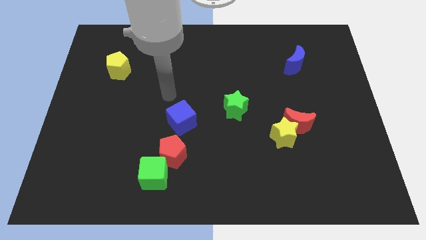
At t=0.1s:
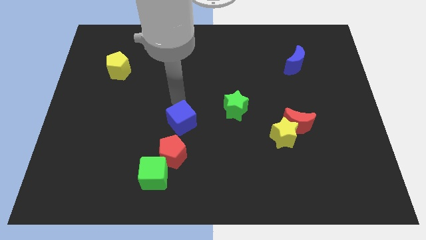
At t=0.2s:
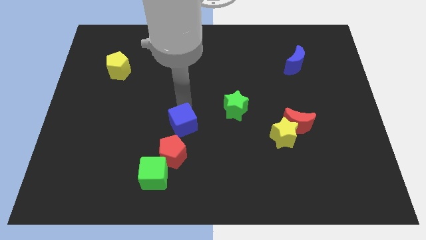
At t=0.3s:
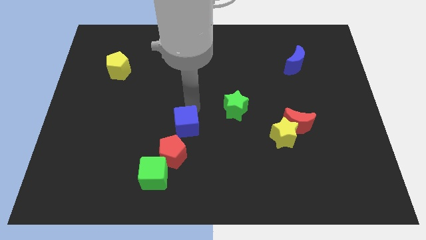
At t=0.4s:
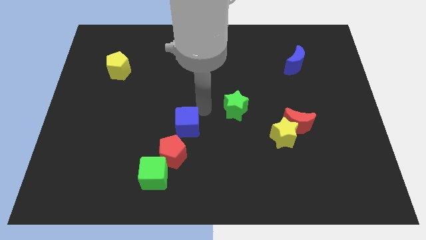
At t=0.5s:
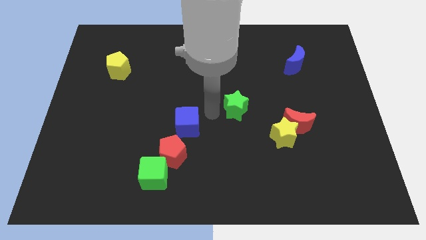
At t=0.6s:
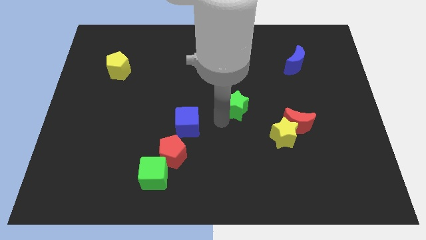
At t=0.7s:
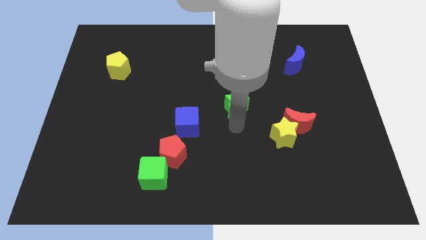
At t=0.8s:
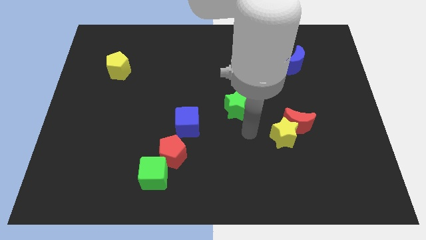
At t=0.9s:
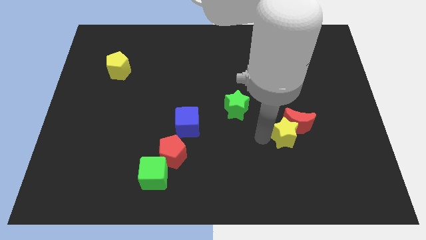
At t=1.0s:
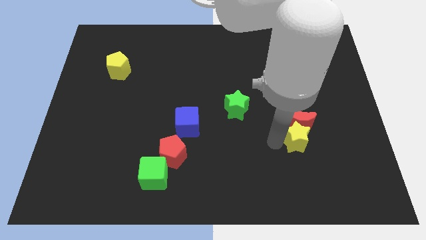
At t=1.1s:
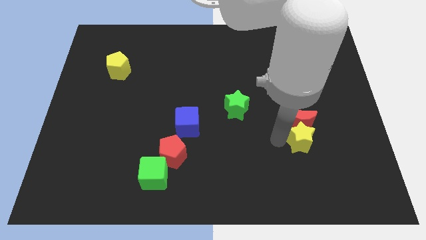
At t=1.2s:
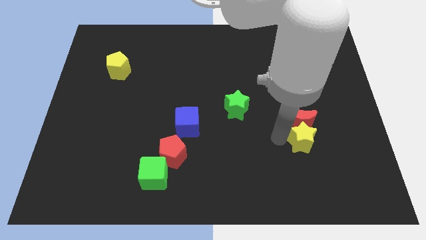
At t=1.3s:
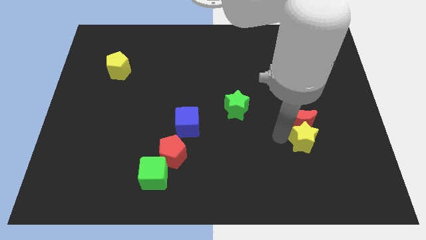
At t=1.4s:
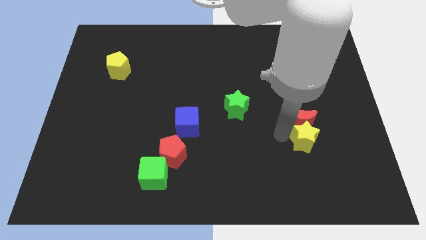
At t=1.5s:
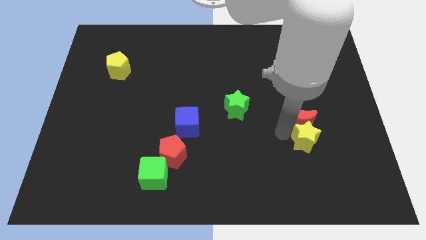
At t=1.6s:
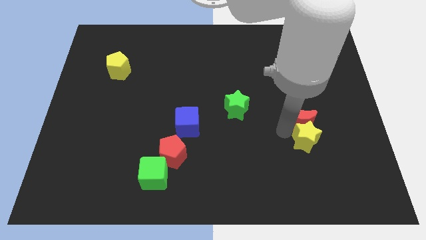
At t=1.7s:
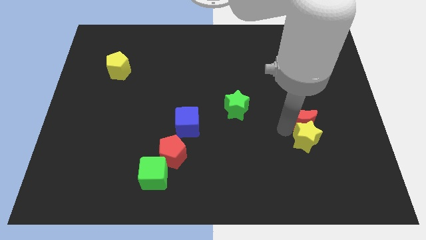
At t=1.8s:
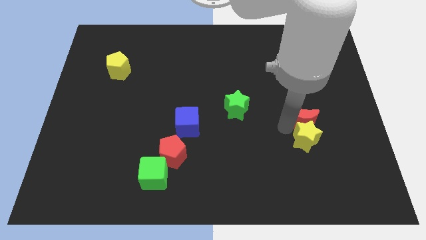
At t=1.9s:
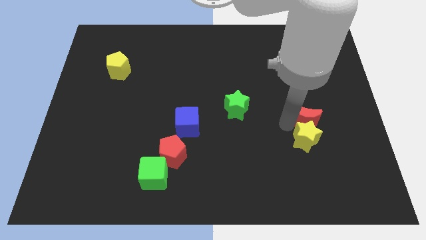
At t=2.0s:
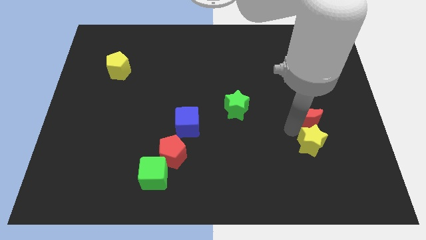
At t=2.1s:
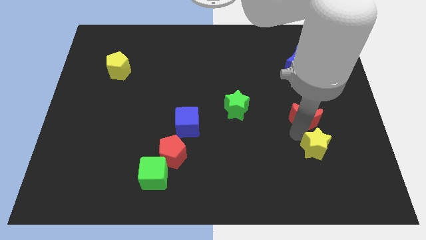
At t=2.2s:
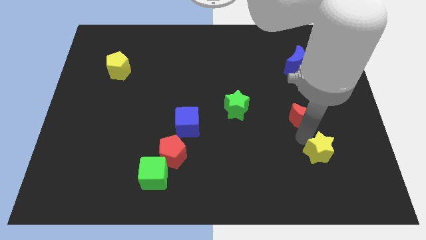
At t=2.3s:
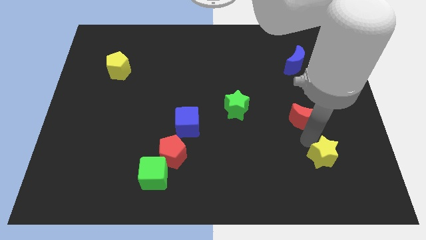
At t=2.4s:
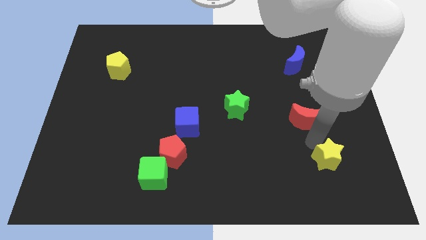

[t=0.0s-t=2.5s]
pull the red moon apart from the yellow star

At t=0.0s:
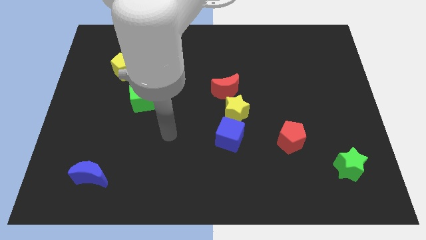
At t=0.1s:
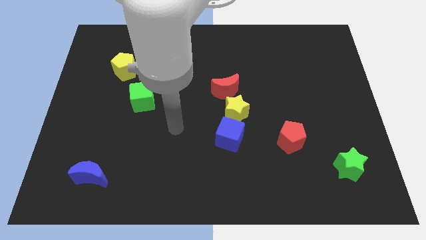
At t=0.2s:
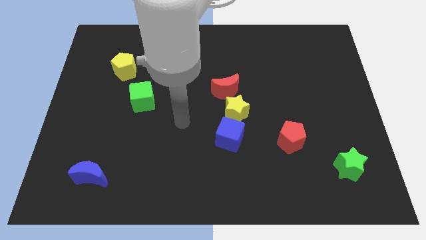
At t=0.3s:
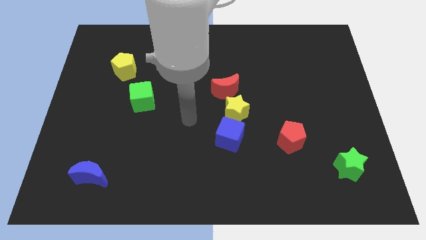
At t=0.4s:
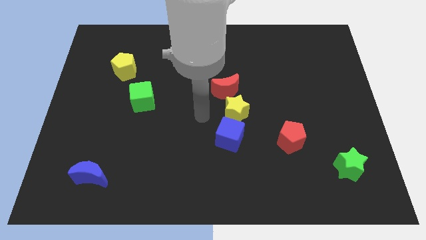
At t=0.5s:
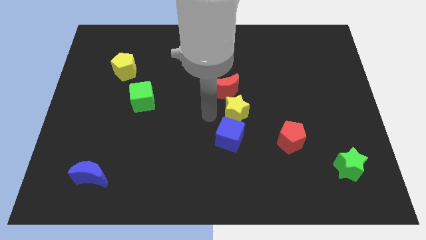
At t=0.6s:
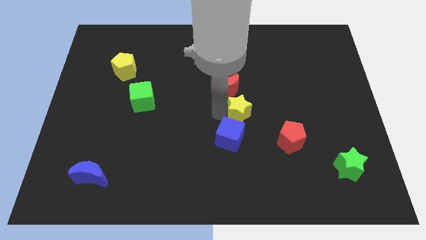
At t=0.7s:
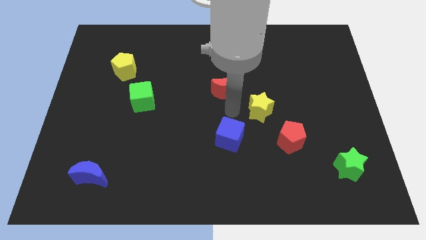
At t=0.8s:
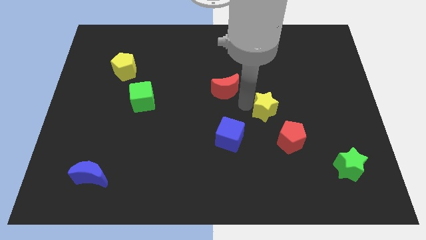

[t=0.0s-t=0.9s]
separate the red moon from the yellow star

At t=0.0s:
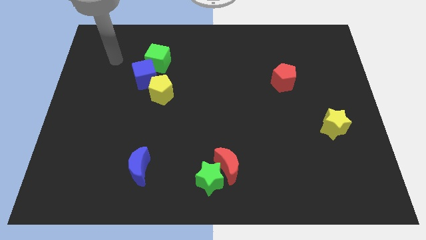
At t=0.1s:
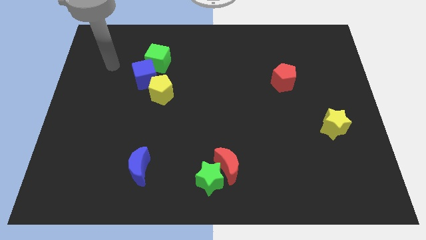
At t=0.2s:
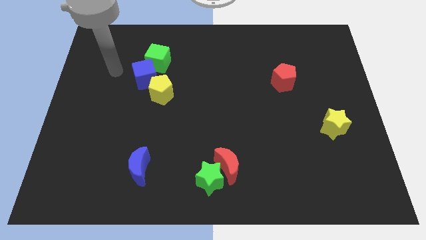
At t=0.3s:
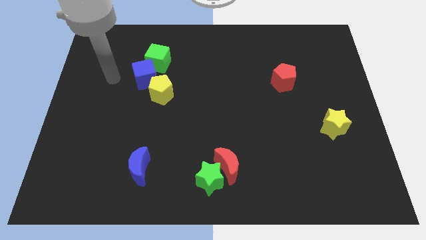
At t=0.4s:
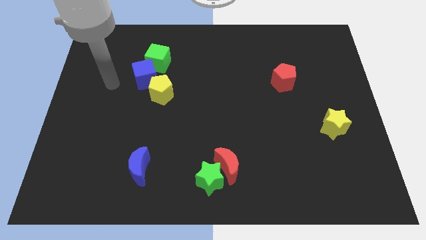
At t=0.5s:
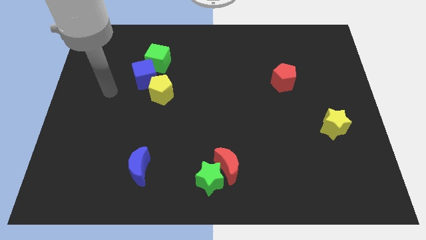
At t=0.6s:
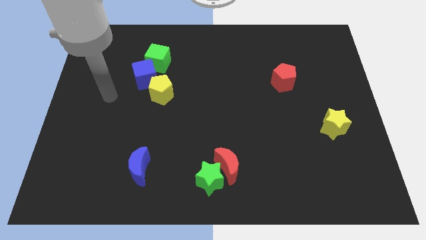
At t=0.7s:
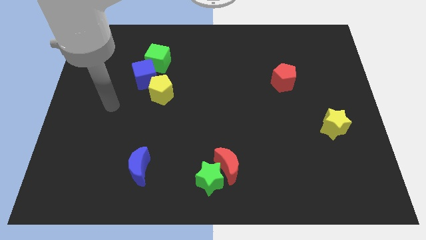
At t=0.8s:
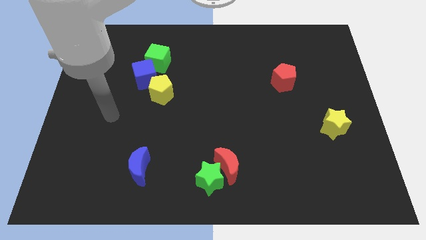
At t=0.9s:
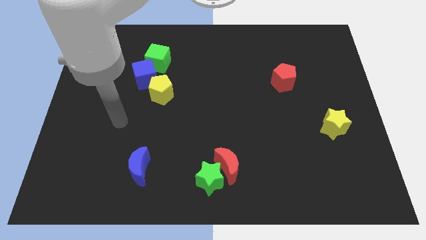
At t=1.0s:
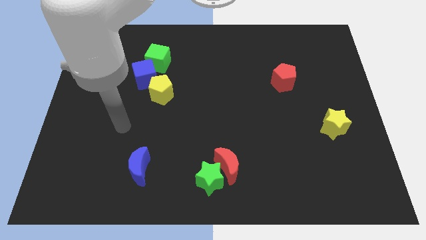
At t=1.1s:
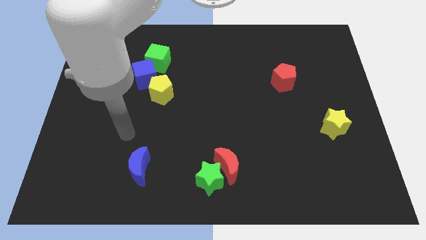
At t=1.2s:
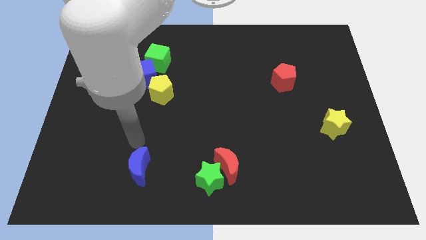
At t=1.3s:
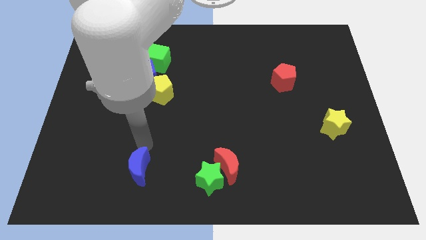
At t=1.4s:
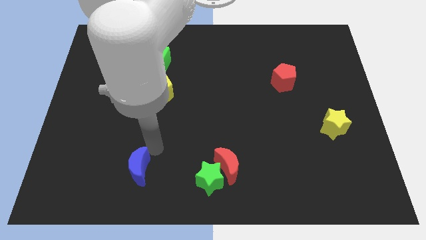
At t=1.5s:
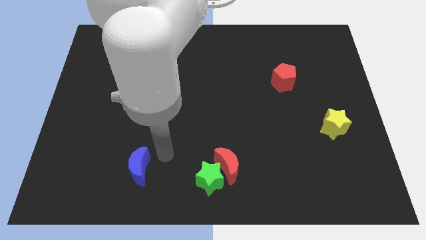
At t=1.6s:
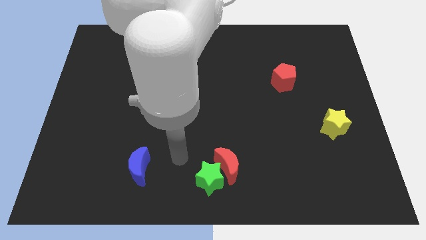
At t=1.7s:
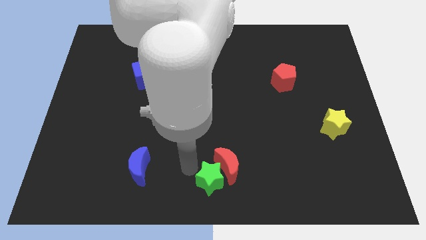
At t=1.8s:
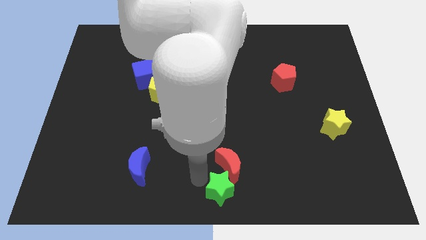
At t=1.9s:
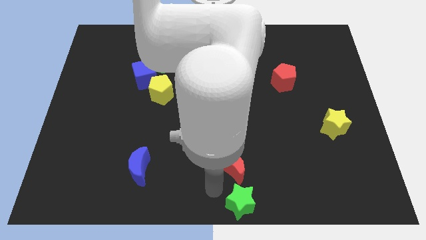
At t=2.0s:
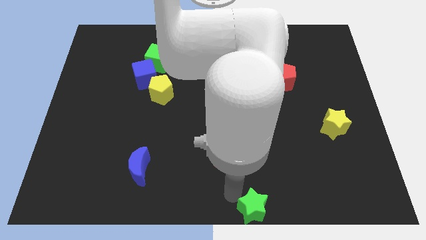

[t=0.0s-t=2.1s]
separate the red moon from the green star

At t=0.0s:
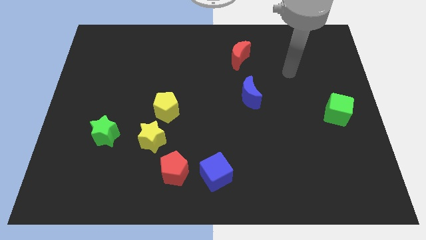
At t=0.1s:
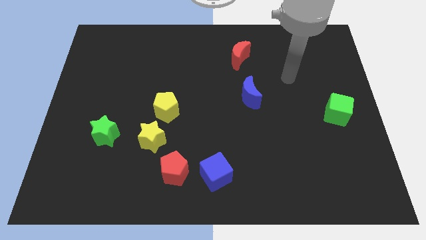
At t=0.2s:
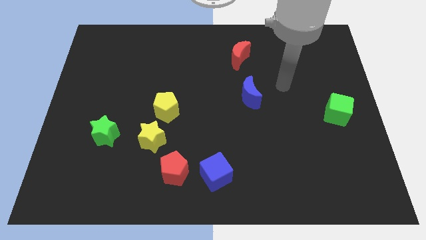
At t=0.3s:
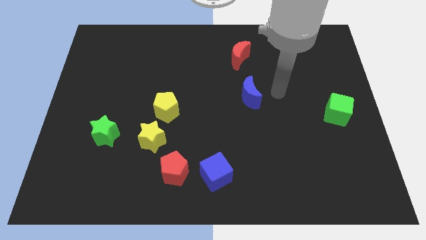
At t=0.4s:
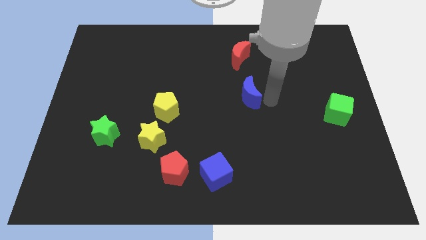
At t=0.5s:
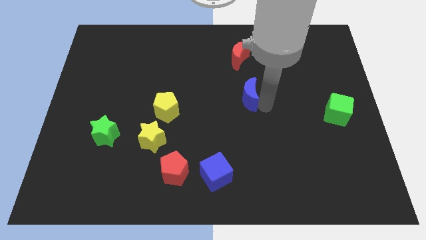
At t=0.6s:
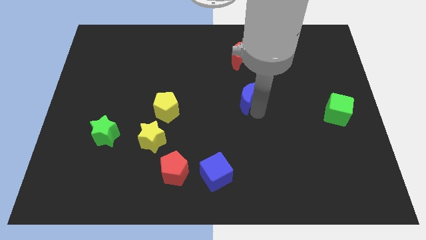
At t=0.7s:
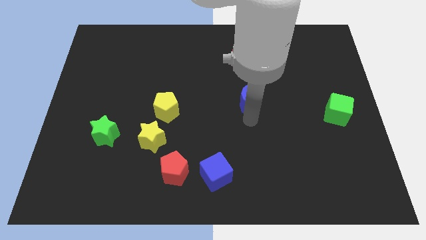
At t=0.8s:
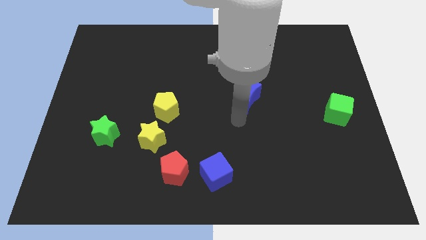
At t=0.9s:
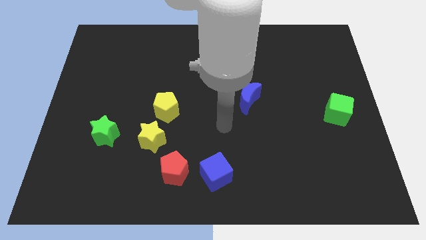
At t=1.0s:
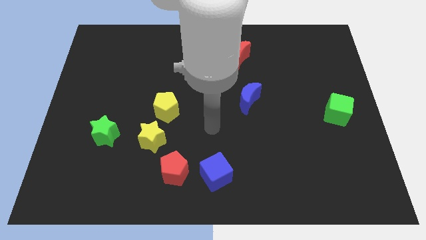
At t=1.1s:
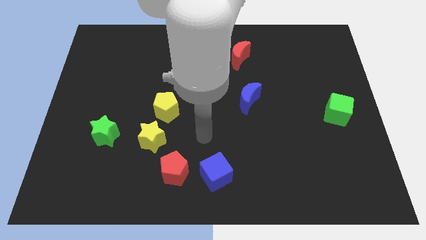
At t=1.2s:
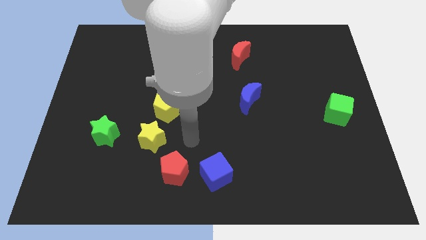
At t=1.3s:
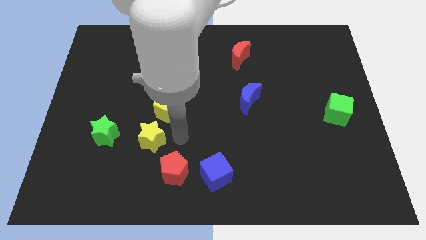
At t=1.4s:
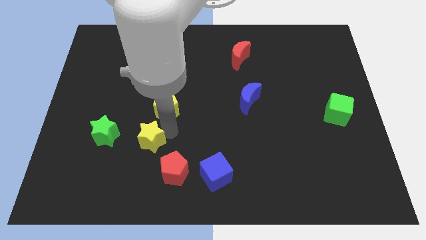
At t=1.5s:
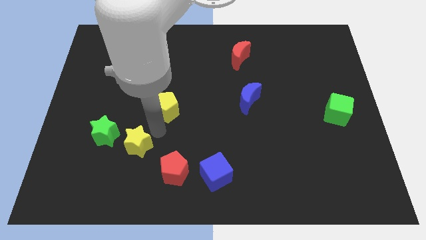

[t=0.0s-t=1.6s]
pull the yellow pentagon apart from the yellow star

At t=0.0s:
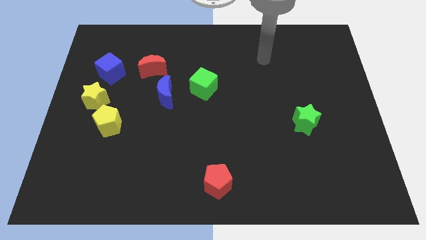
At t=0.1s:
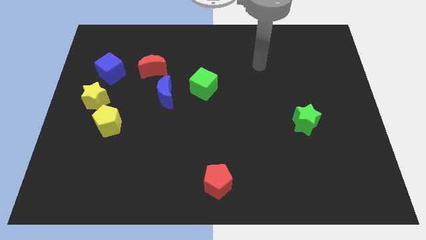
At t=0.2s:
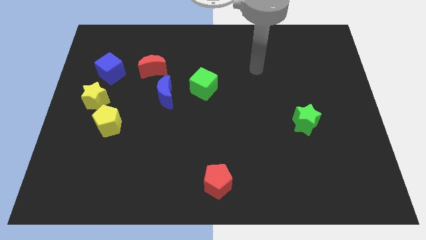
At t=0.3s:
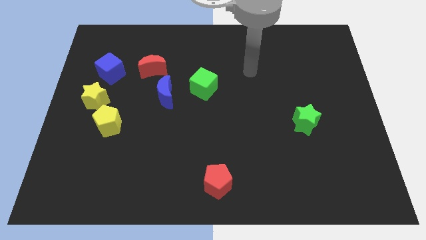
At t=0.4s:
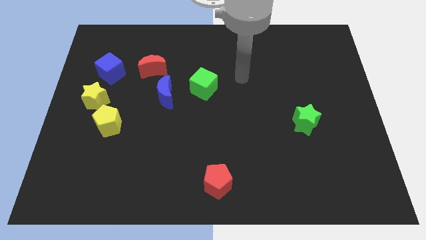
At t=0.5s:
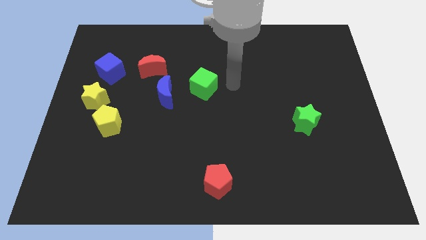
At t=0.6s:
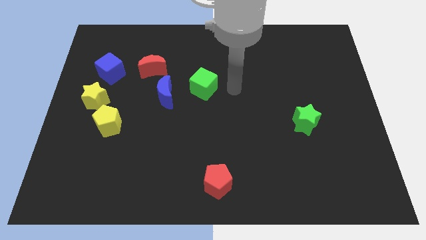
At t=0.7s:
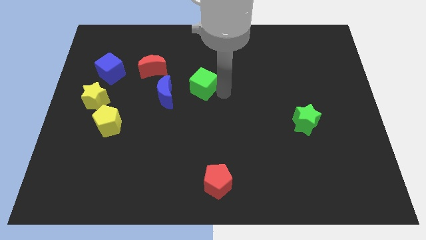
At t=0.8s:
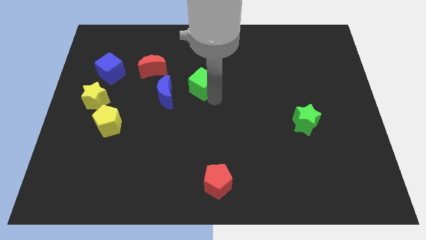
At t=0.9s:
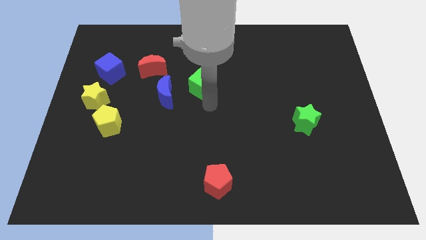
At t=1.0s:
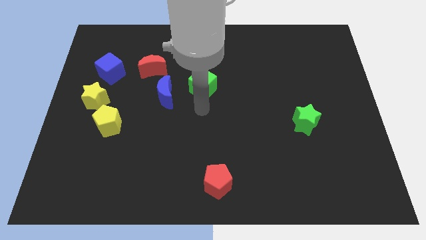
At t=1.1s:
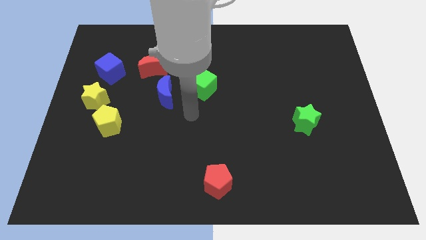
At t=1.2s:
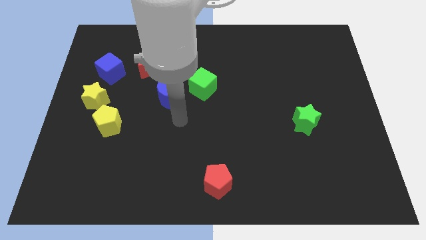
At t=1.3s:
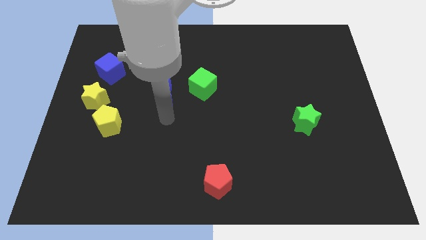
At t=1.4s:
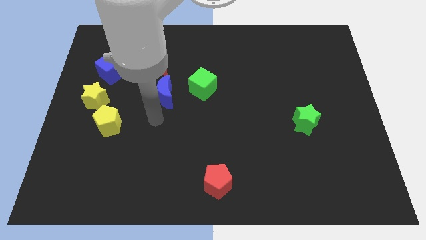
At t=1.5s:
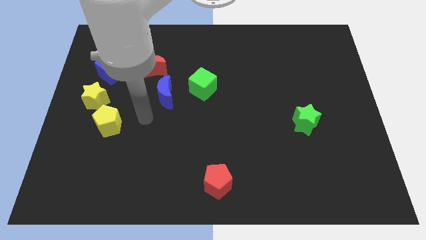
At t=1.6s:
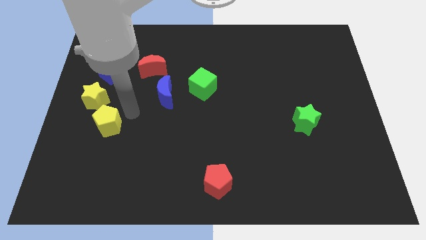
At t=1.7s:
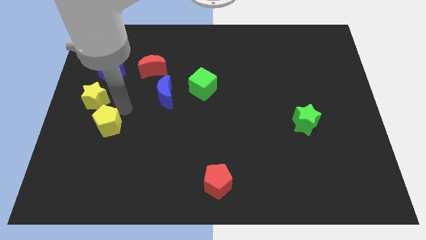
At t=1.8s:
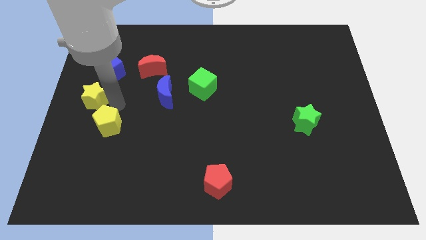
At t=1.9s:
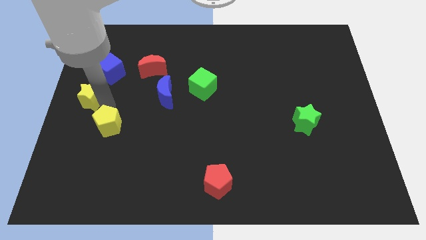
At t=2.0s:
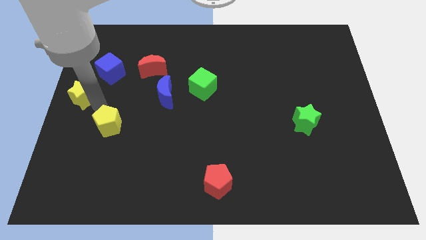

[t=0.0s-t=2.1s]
separate the yellow pentagon from the yellow star
